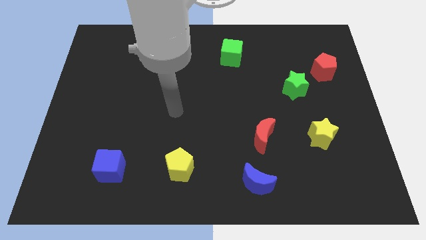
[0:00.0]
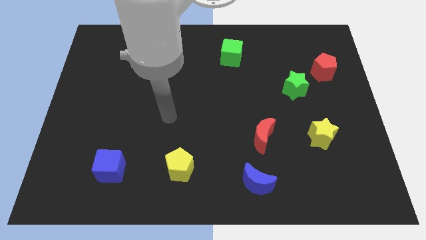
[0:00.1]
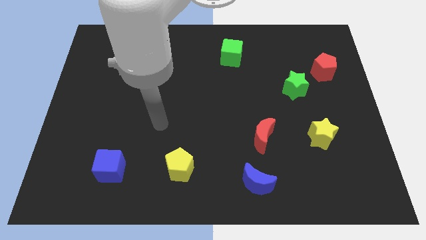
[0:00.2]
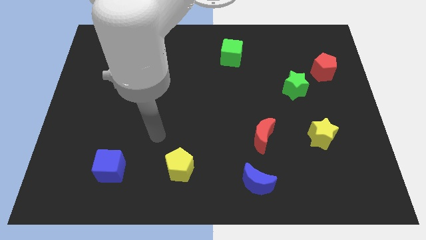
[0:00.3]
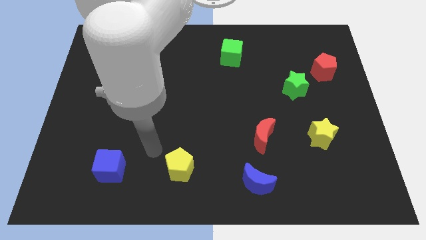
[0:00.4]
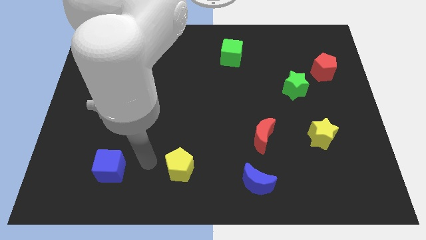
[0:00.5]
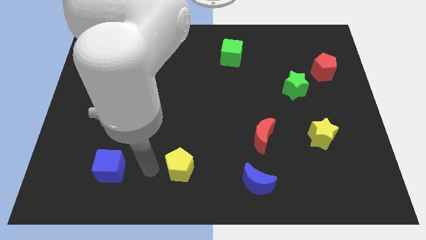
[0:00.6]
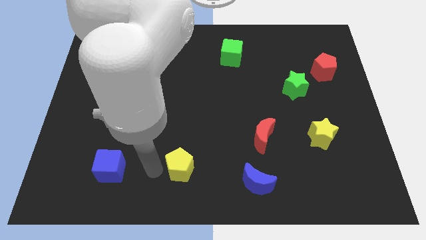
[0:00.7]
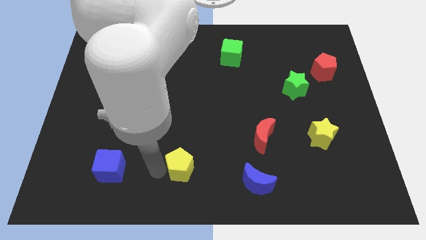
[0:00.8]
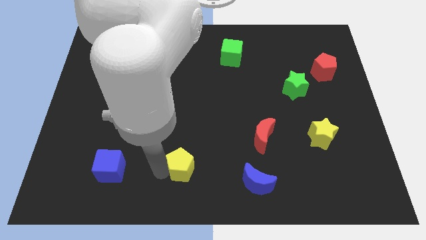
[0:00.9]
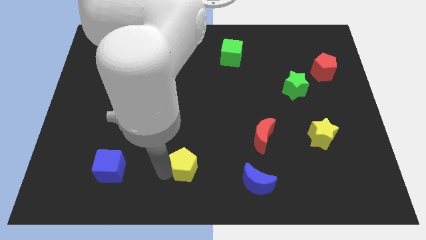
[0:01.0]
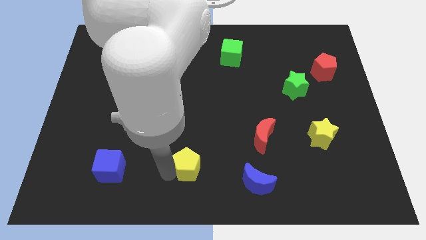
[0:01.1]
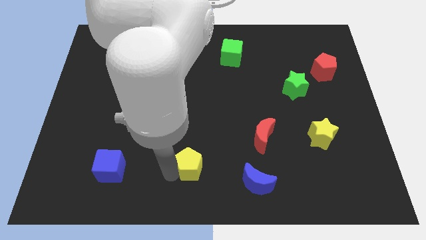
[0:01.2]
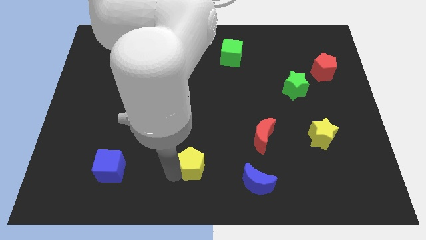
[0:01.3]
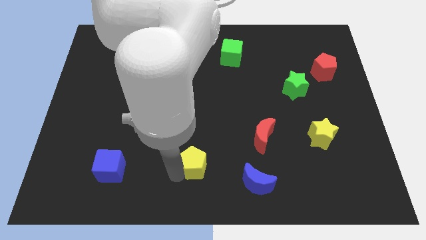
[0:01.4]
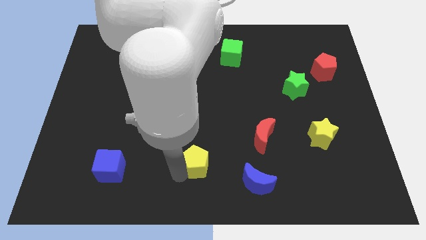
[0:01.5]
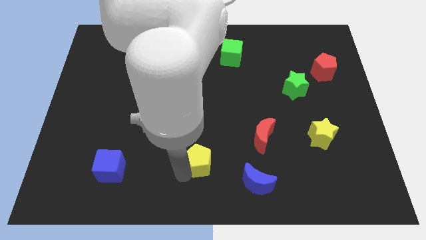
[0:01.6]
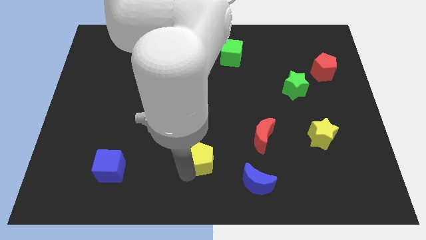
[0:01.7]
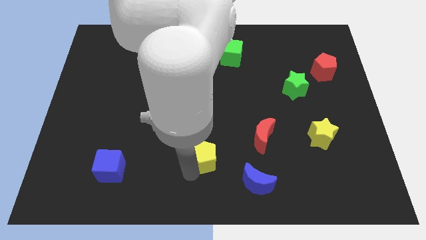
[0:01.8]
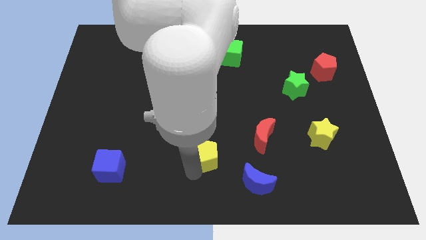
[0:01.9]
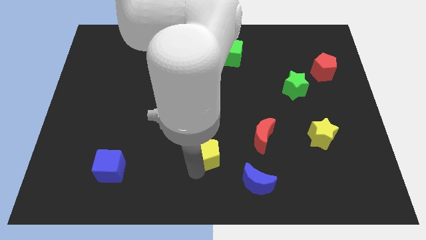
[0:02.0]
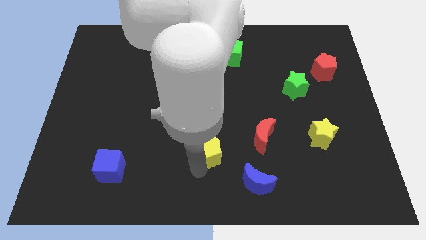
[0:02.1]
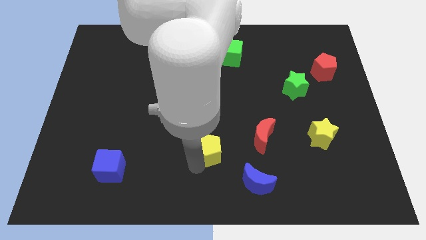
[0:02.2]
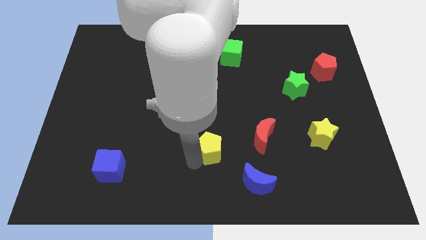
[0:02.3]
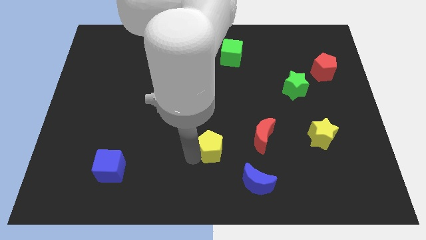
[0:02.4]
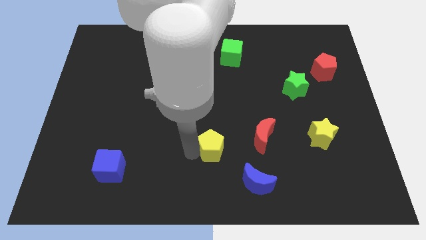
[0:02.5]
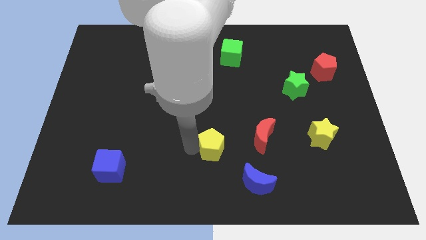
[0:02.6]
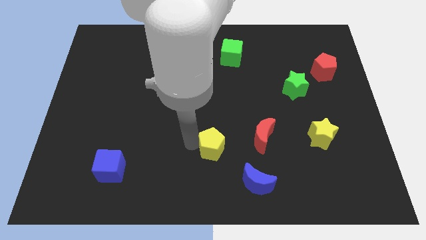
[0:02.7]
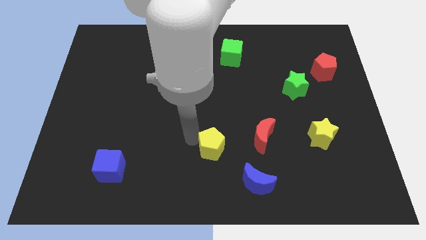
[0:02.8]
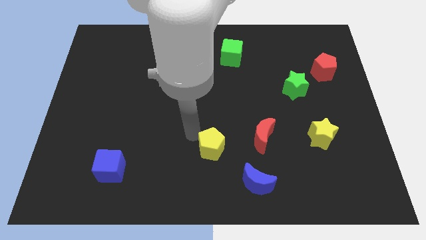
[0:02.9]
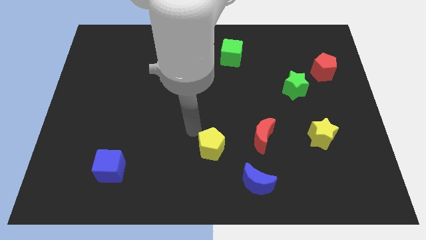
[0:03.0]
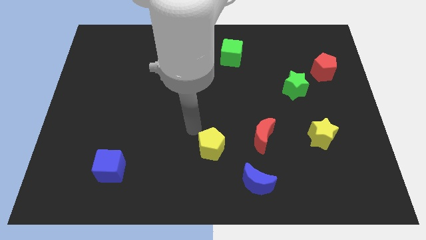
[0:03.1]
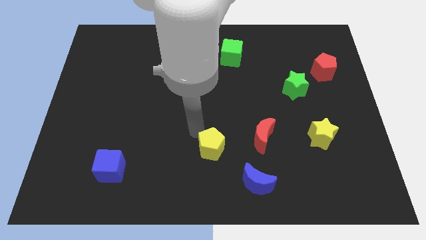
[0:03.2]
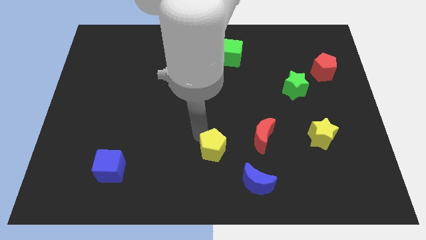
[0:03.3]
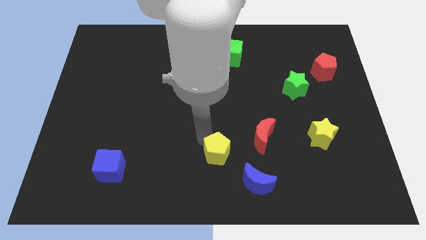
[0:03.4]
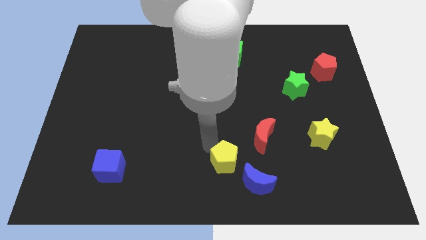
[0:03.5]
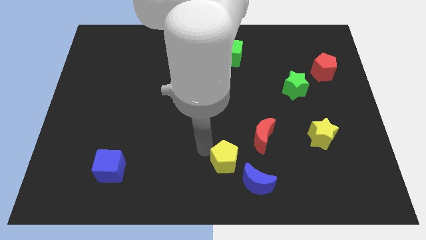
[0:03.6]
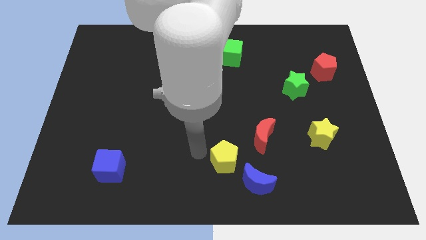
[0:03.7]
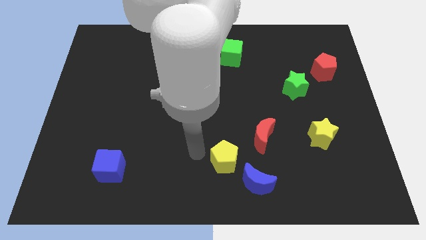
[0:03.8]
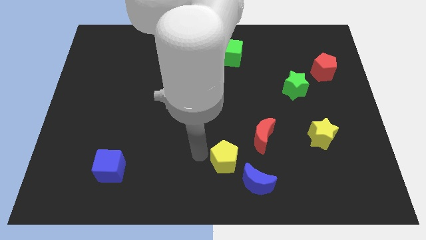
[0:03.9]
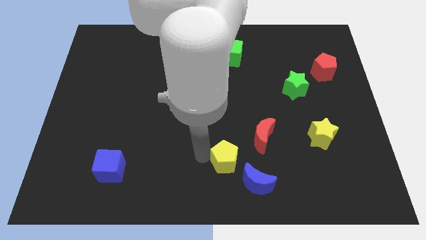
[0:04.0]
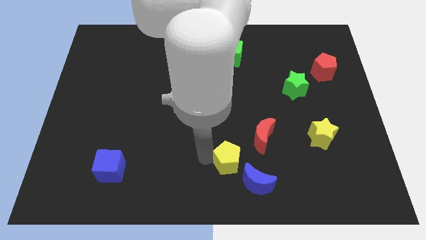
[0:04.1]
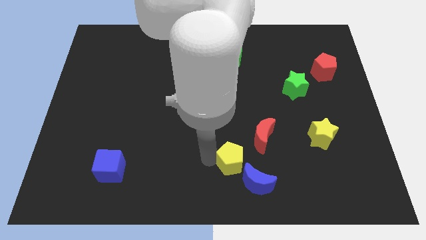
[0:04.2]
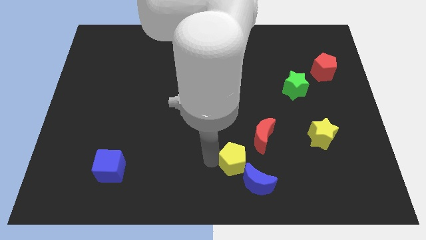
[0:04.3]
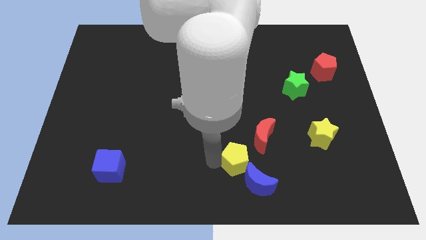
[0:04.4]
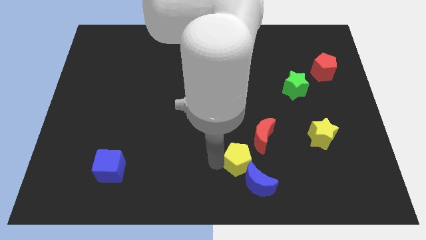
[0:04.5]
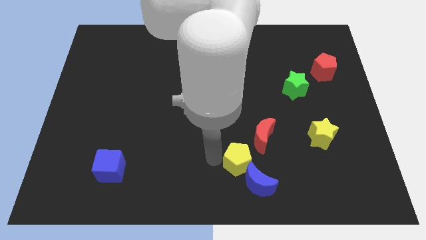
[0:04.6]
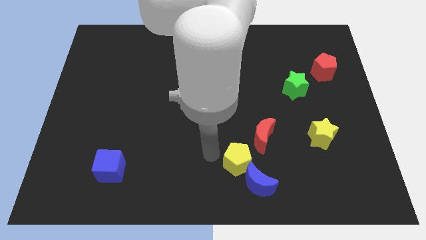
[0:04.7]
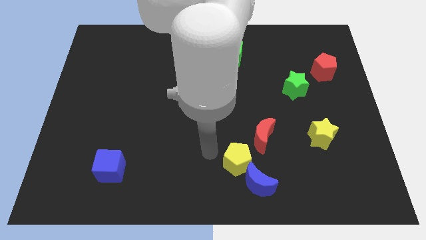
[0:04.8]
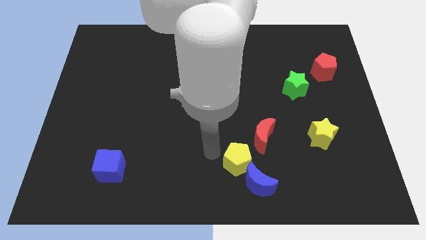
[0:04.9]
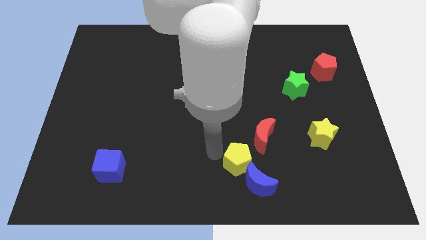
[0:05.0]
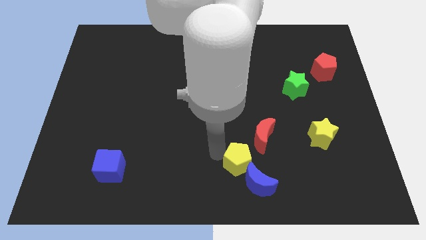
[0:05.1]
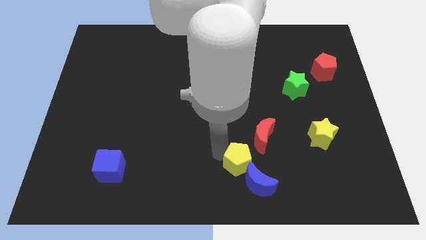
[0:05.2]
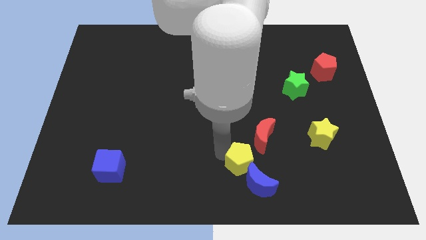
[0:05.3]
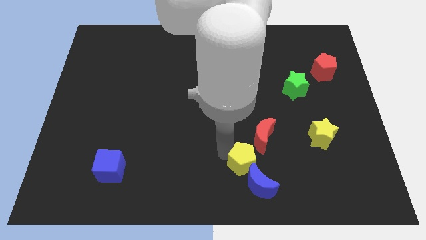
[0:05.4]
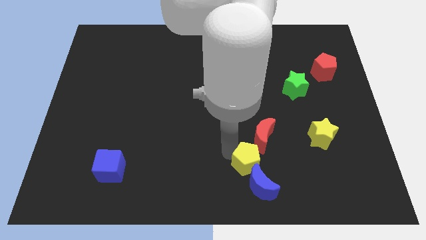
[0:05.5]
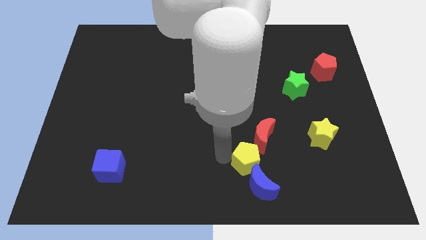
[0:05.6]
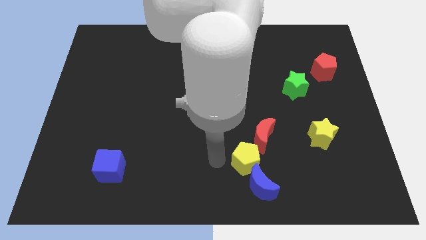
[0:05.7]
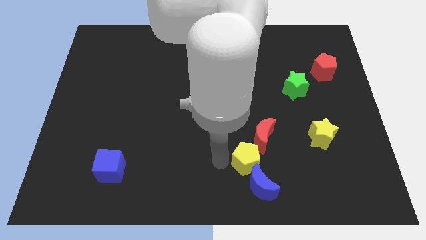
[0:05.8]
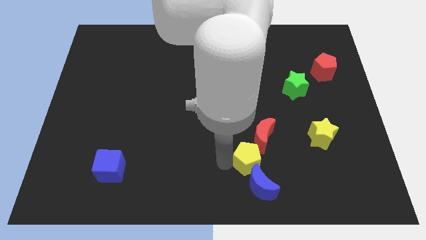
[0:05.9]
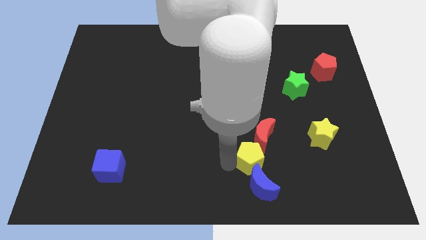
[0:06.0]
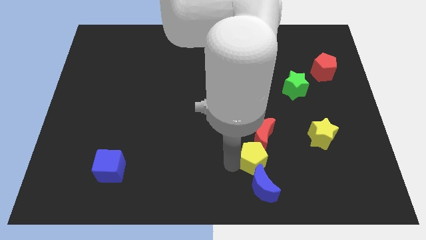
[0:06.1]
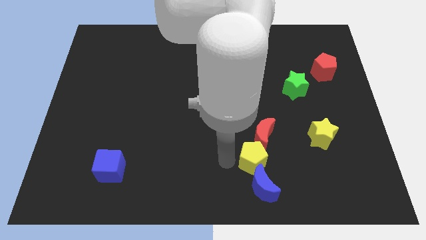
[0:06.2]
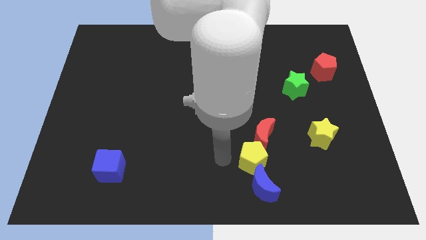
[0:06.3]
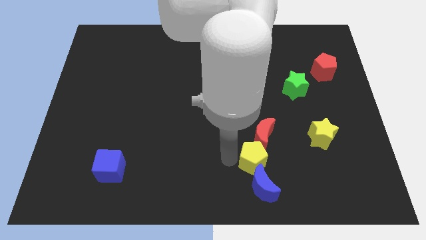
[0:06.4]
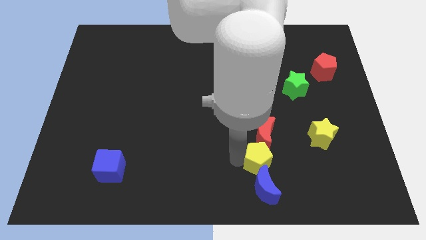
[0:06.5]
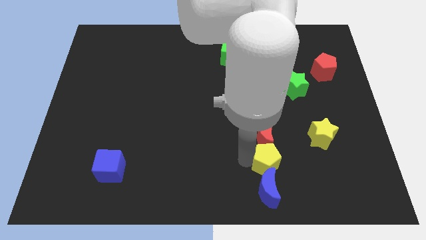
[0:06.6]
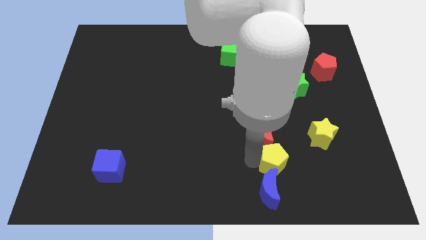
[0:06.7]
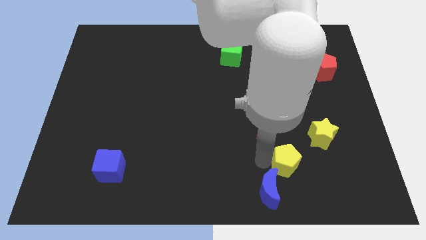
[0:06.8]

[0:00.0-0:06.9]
move the yellow pentagon to the right

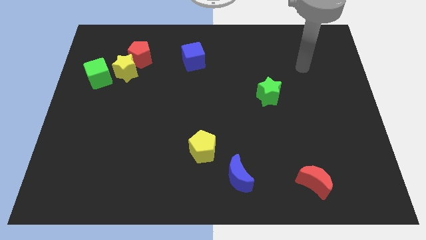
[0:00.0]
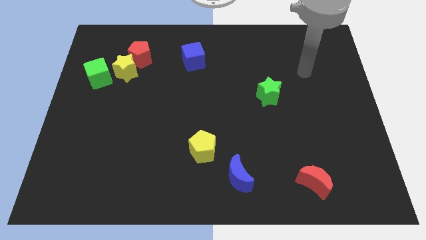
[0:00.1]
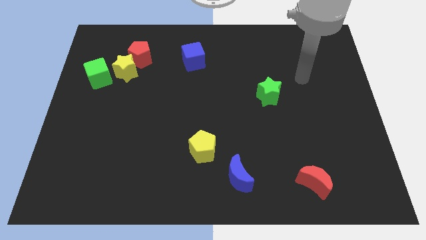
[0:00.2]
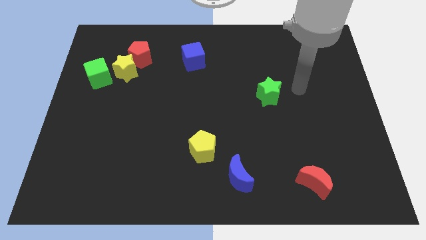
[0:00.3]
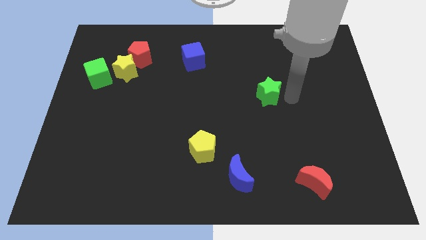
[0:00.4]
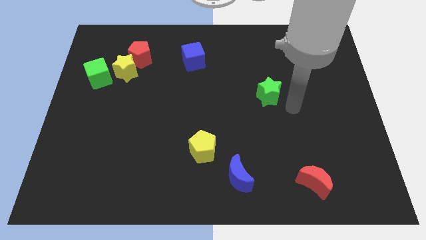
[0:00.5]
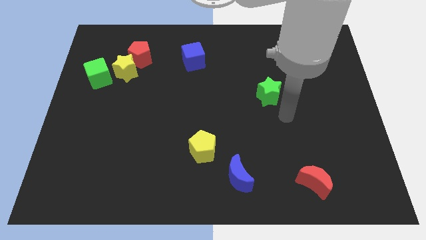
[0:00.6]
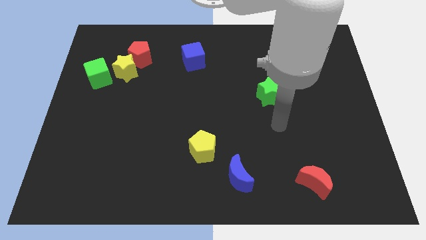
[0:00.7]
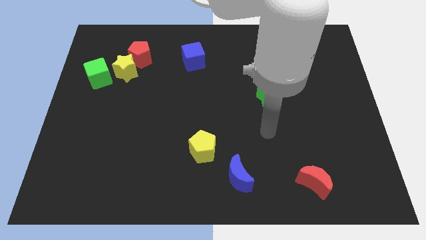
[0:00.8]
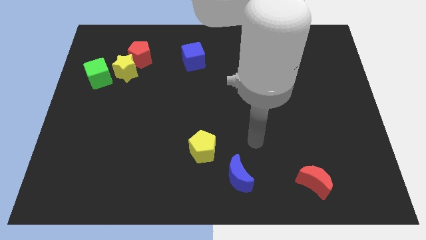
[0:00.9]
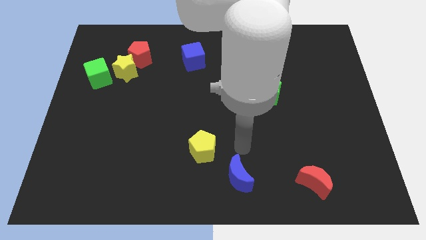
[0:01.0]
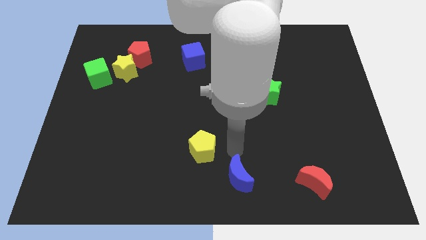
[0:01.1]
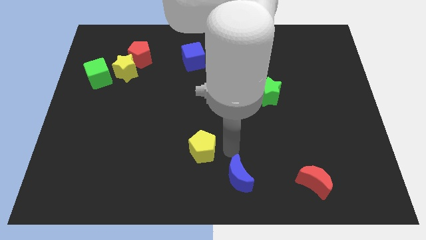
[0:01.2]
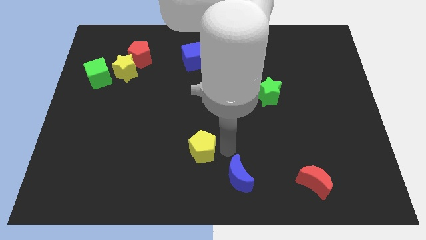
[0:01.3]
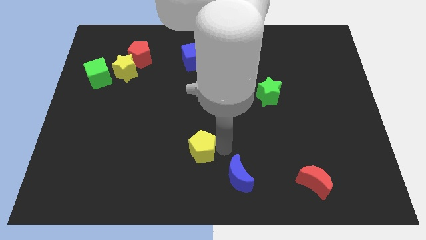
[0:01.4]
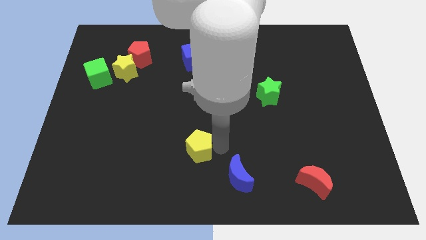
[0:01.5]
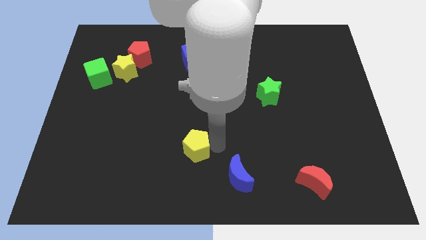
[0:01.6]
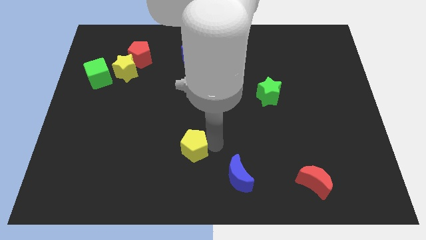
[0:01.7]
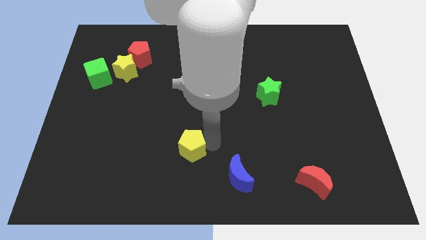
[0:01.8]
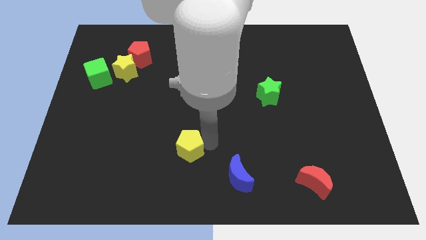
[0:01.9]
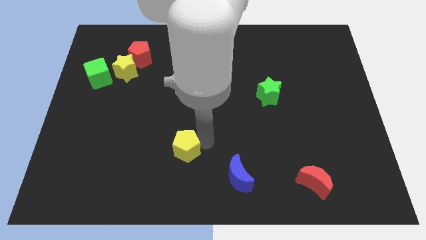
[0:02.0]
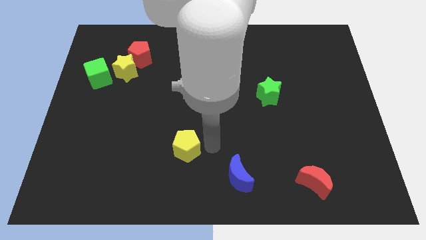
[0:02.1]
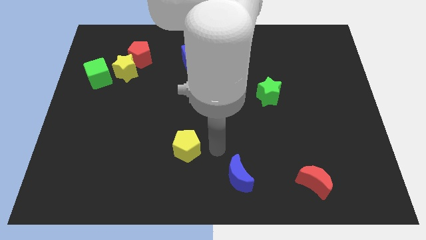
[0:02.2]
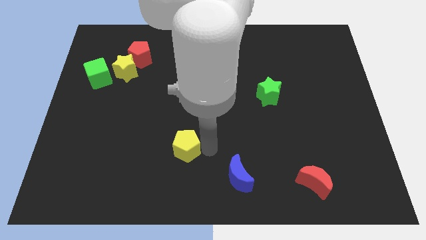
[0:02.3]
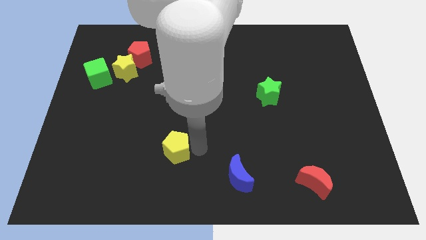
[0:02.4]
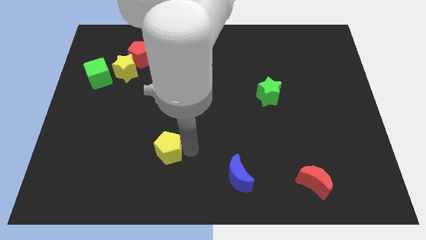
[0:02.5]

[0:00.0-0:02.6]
slightly push the yellow pentagon left
